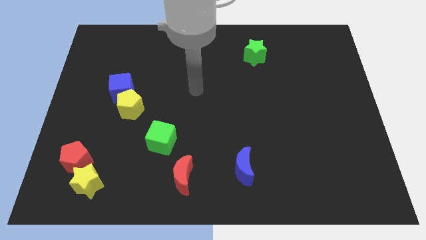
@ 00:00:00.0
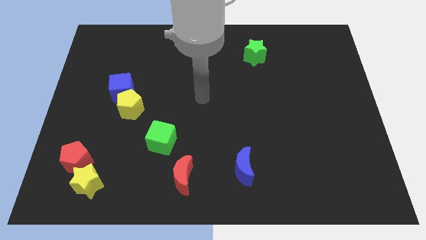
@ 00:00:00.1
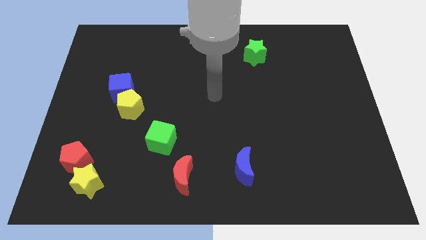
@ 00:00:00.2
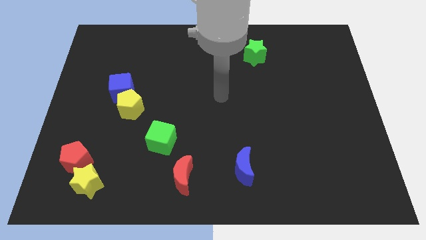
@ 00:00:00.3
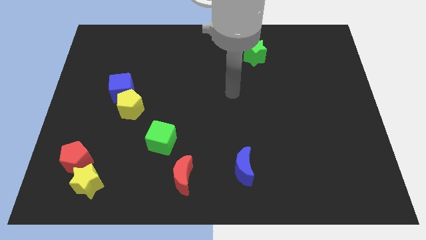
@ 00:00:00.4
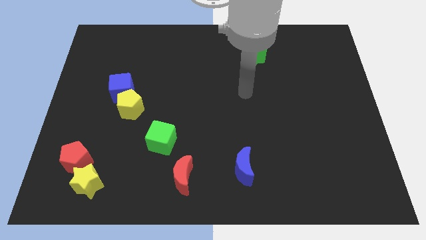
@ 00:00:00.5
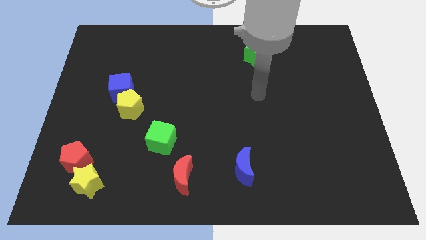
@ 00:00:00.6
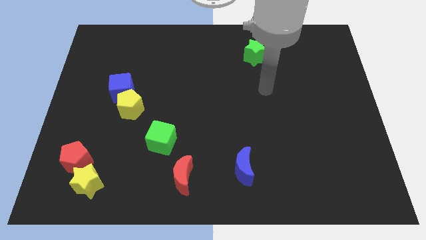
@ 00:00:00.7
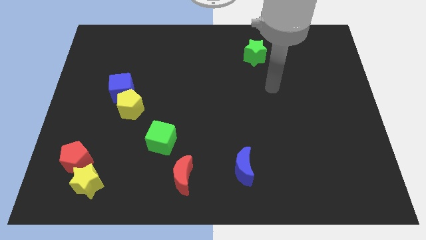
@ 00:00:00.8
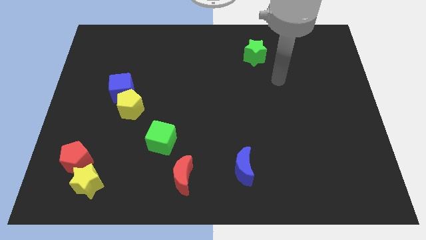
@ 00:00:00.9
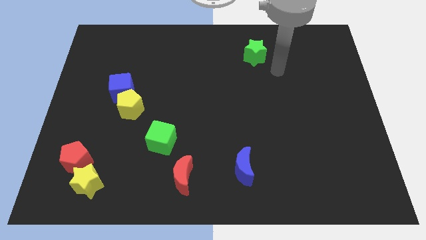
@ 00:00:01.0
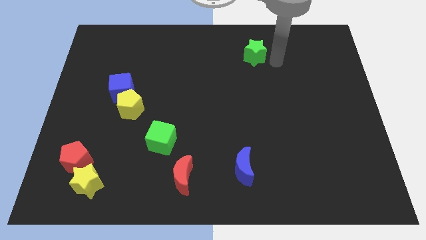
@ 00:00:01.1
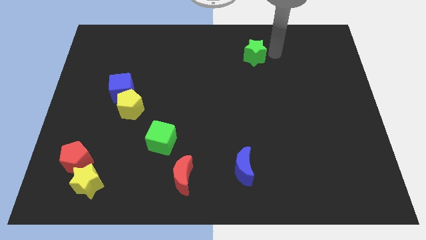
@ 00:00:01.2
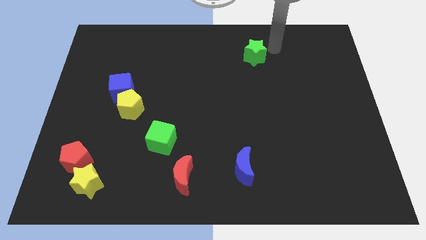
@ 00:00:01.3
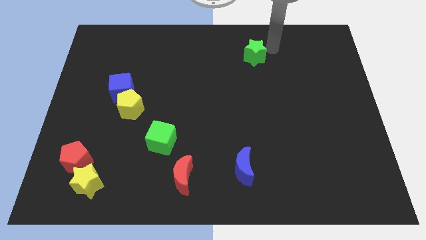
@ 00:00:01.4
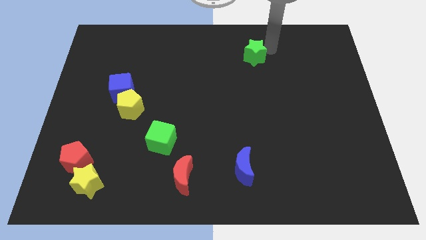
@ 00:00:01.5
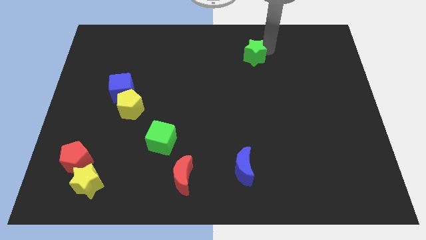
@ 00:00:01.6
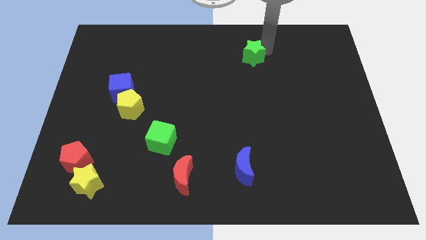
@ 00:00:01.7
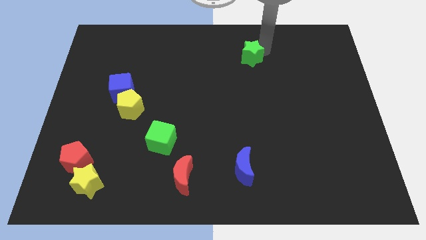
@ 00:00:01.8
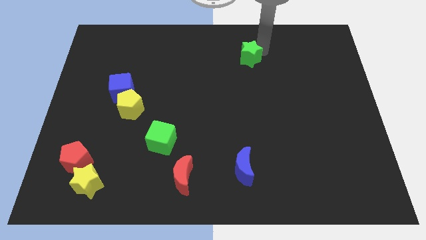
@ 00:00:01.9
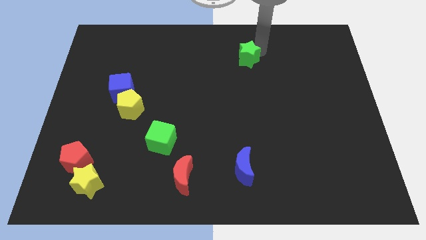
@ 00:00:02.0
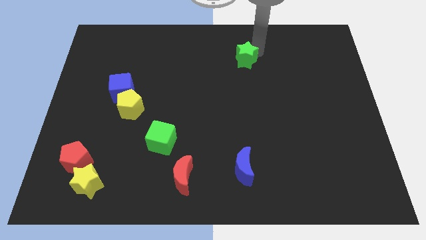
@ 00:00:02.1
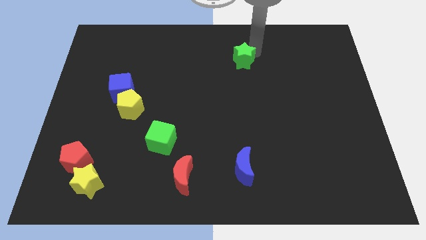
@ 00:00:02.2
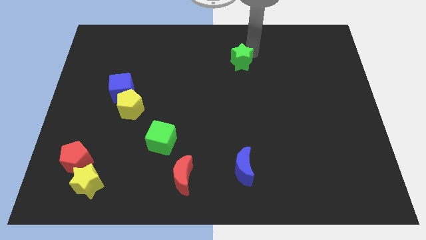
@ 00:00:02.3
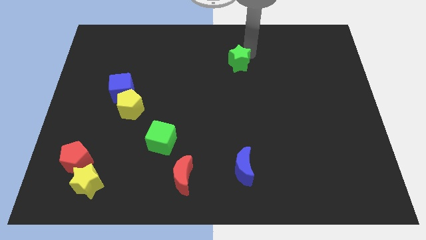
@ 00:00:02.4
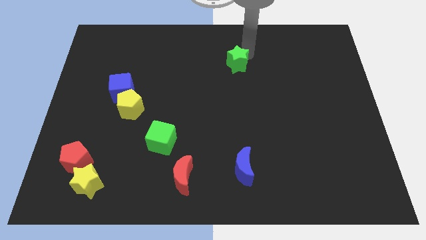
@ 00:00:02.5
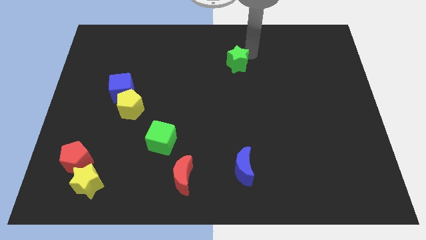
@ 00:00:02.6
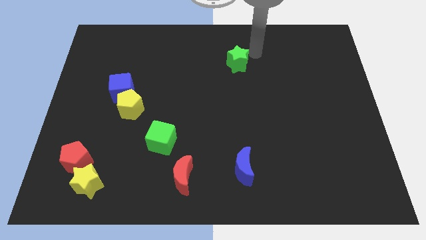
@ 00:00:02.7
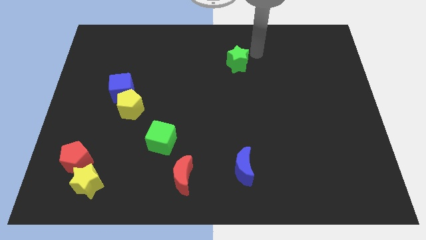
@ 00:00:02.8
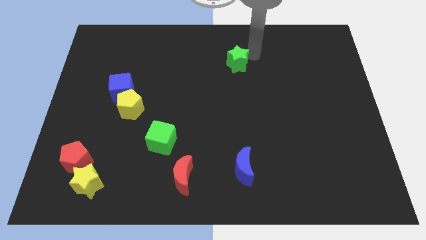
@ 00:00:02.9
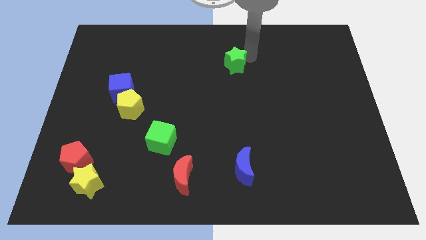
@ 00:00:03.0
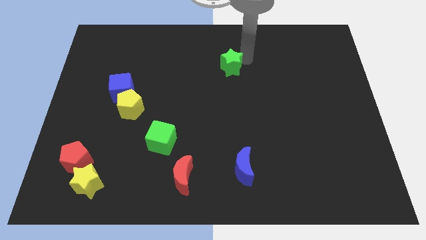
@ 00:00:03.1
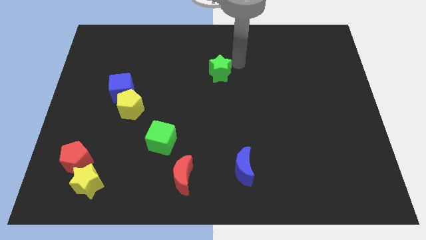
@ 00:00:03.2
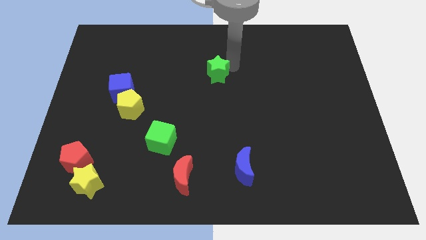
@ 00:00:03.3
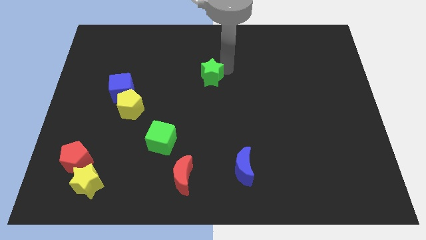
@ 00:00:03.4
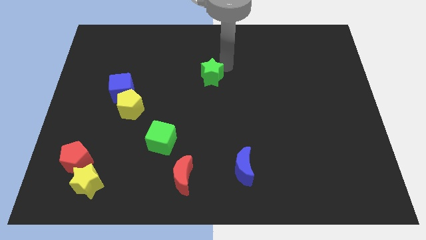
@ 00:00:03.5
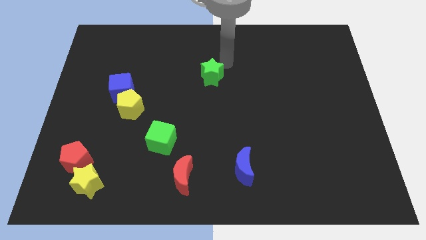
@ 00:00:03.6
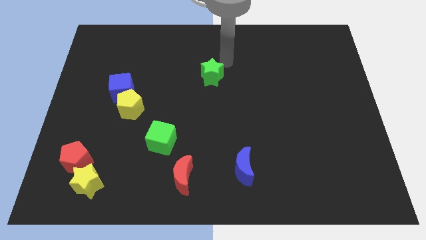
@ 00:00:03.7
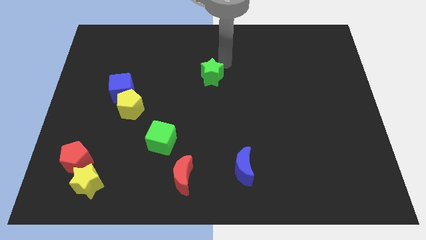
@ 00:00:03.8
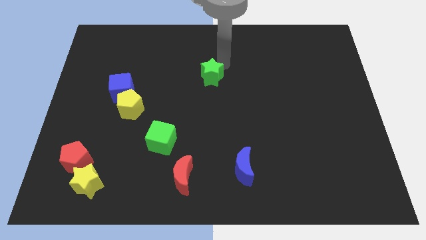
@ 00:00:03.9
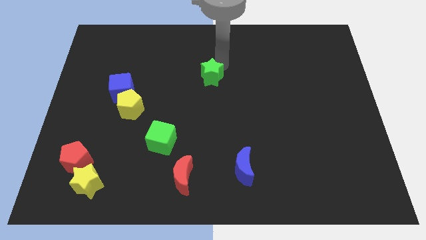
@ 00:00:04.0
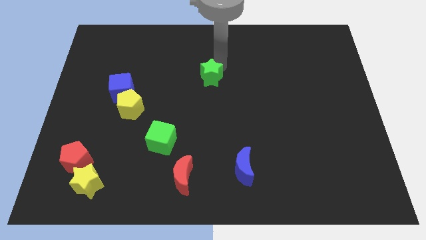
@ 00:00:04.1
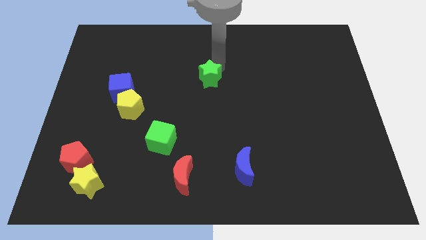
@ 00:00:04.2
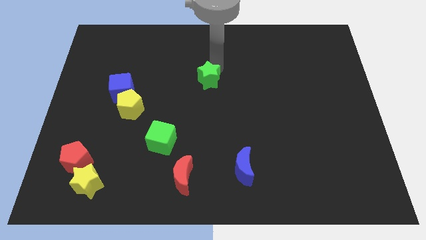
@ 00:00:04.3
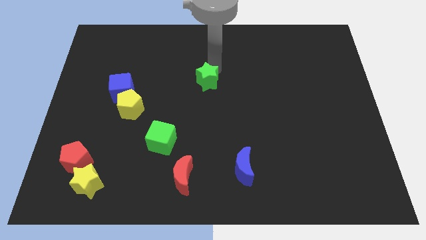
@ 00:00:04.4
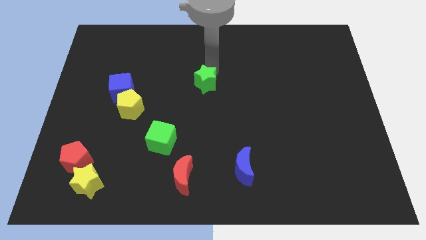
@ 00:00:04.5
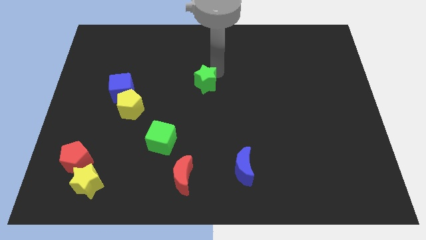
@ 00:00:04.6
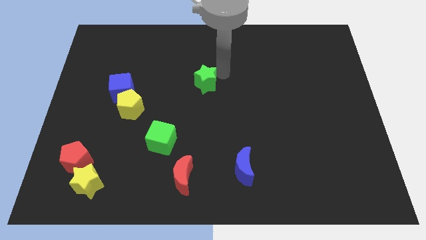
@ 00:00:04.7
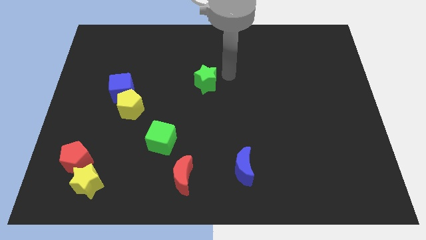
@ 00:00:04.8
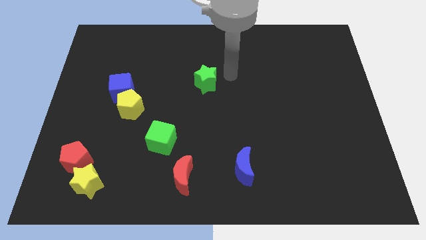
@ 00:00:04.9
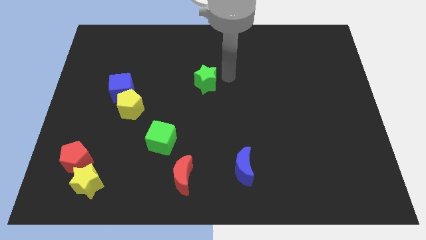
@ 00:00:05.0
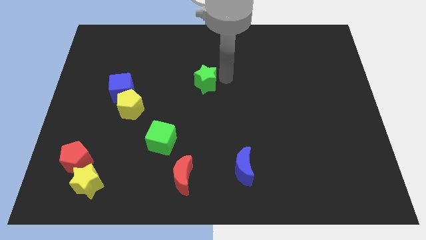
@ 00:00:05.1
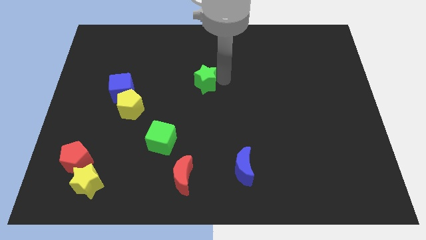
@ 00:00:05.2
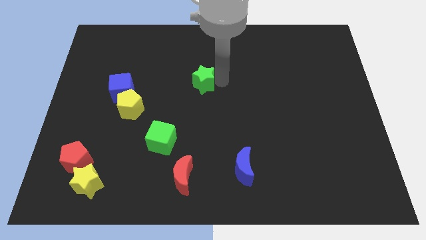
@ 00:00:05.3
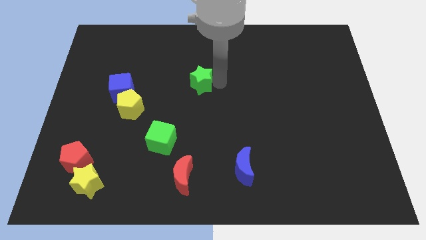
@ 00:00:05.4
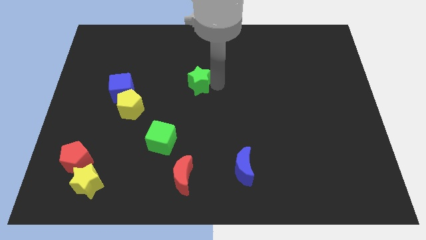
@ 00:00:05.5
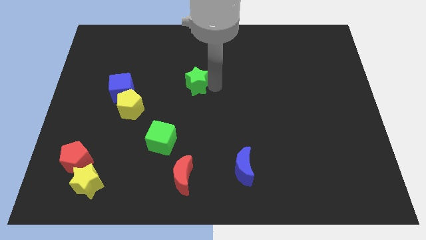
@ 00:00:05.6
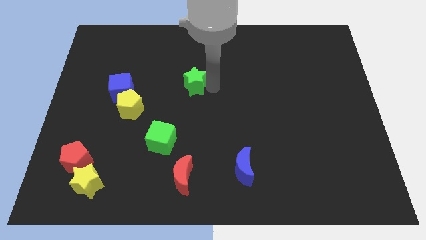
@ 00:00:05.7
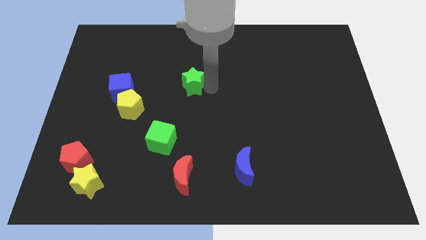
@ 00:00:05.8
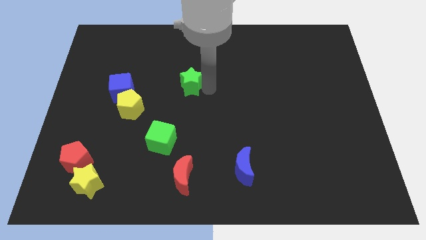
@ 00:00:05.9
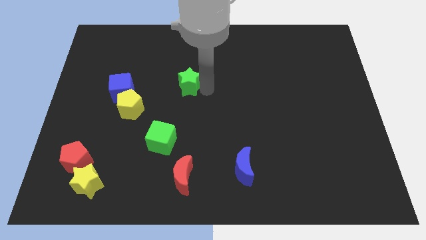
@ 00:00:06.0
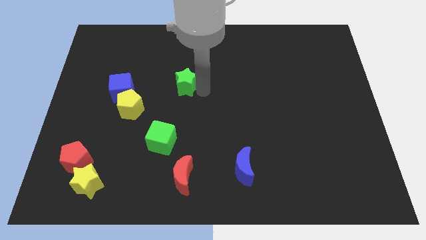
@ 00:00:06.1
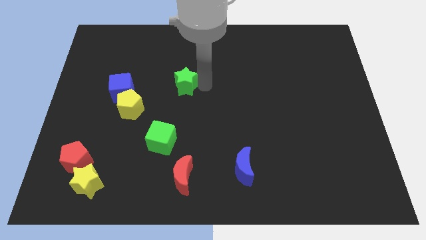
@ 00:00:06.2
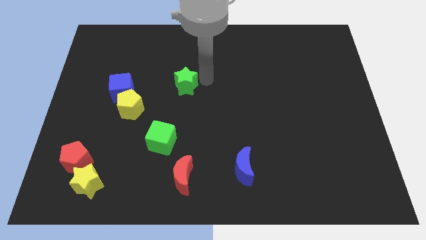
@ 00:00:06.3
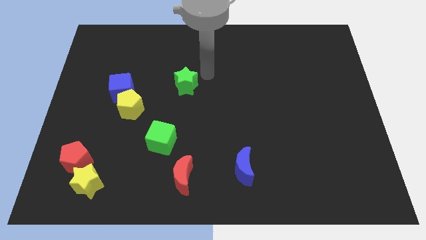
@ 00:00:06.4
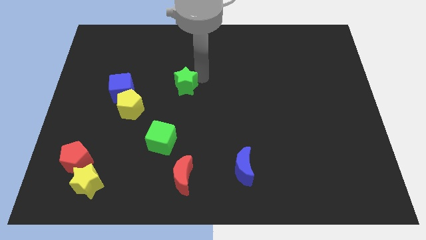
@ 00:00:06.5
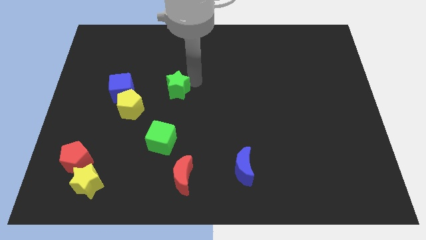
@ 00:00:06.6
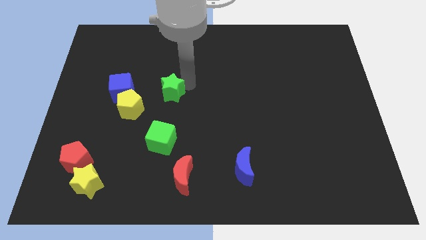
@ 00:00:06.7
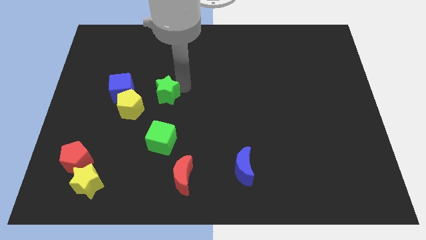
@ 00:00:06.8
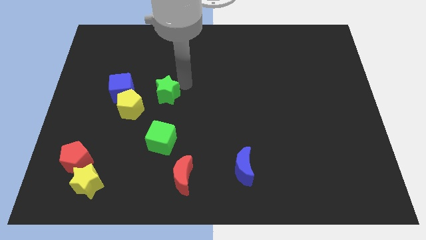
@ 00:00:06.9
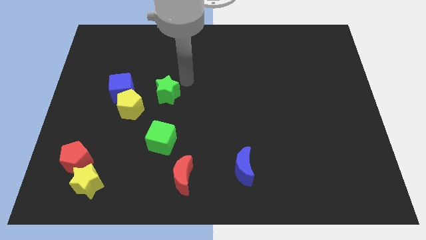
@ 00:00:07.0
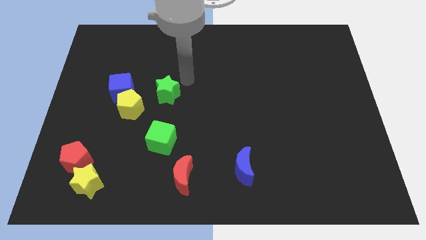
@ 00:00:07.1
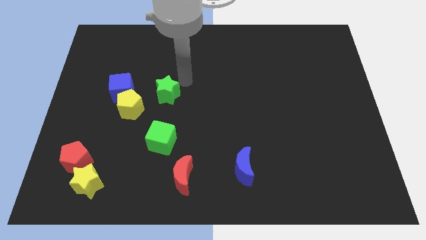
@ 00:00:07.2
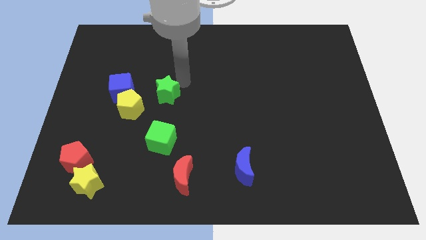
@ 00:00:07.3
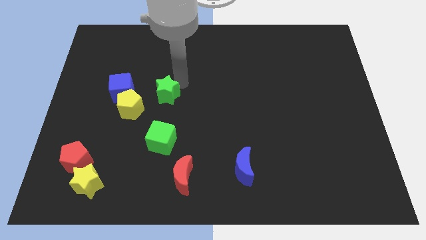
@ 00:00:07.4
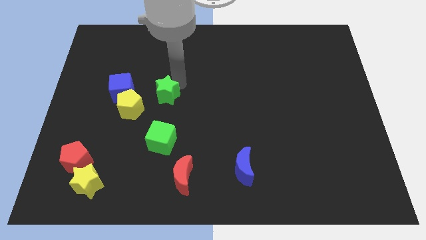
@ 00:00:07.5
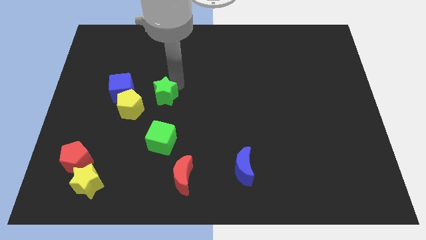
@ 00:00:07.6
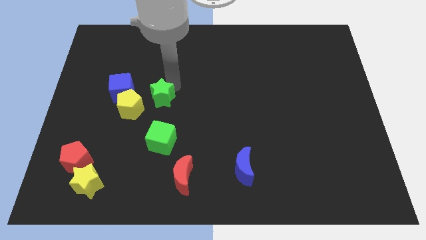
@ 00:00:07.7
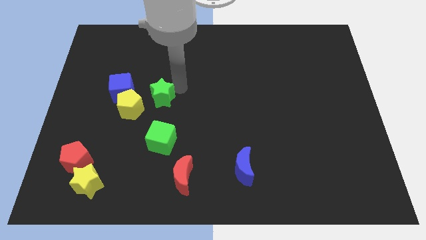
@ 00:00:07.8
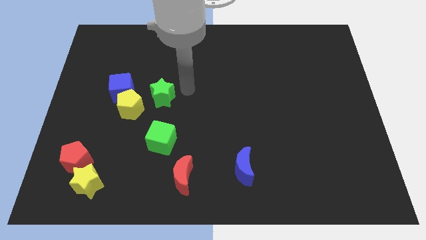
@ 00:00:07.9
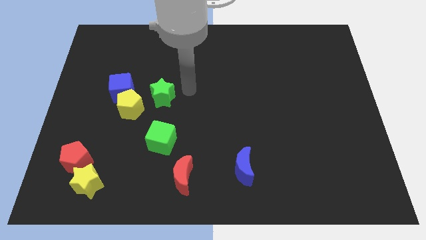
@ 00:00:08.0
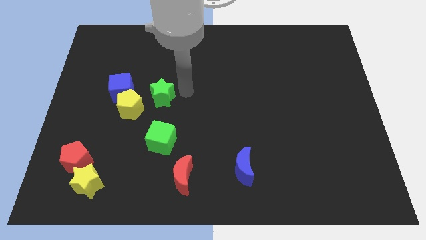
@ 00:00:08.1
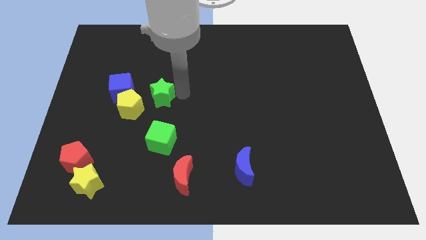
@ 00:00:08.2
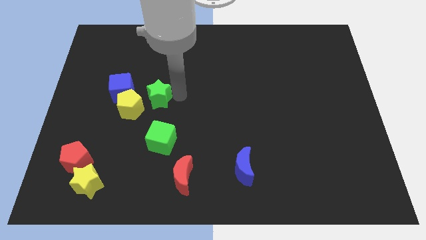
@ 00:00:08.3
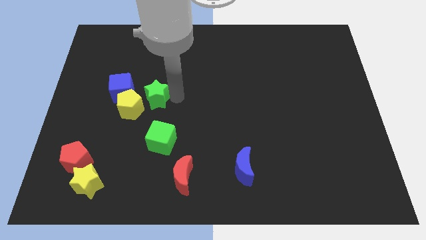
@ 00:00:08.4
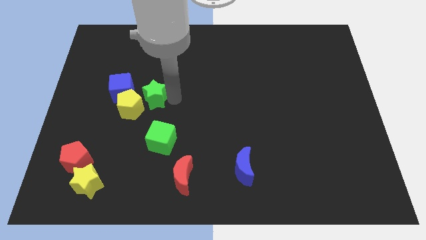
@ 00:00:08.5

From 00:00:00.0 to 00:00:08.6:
put the green star close to the yellow pentagon
